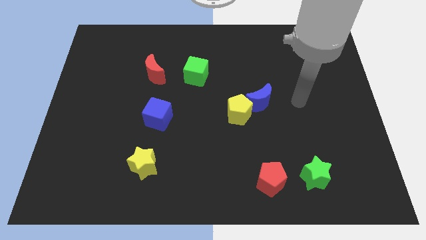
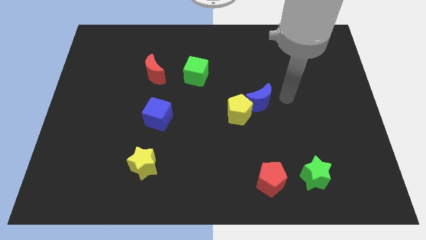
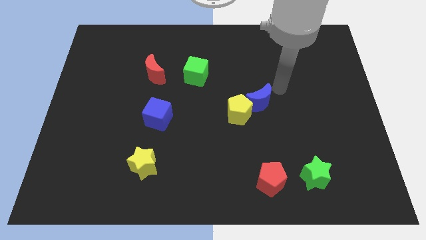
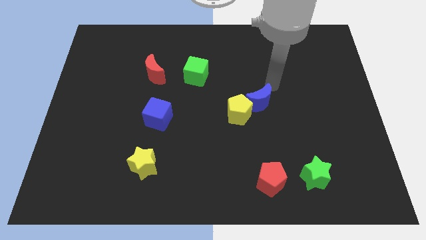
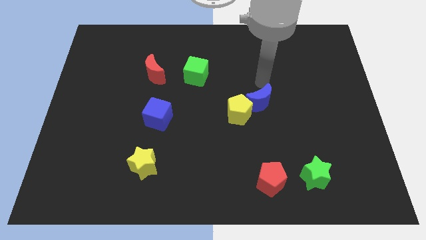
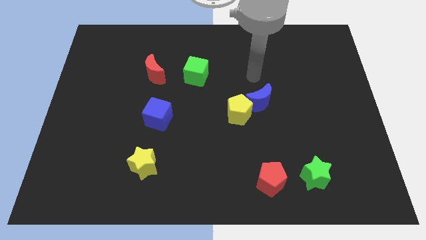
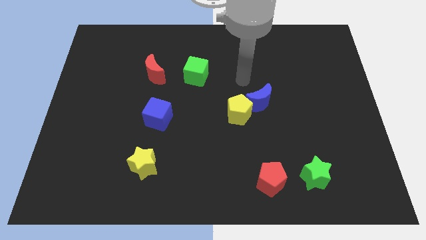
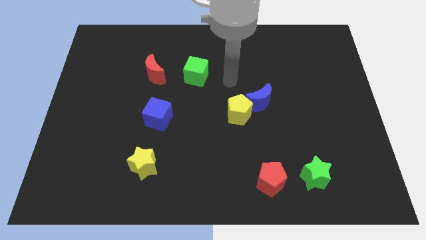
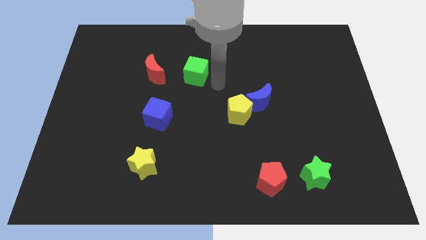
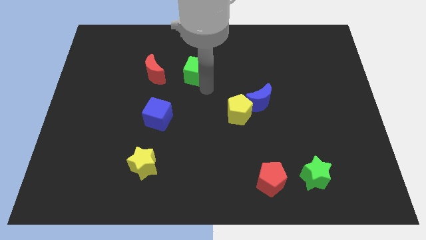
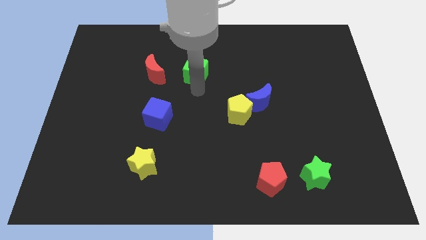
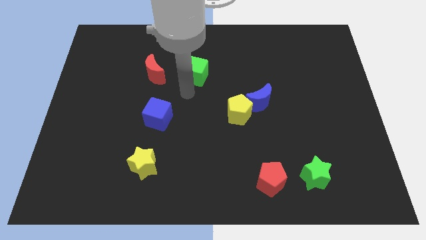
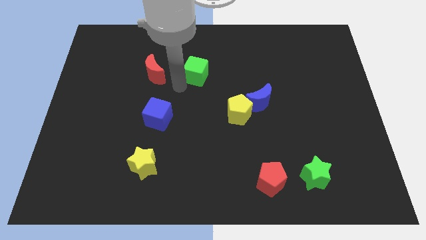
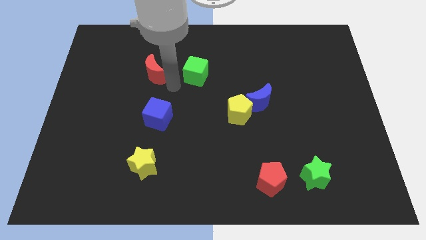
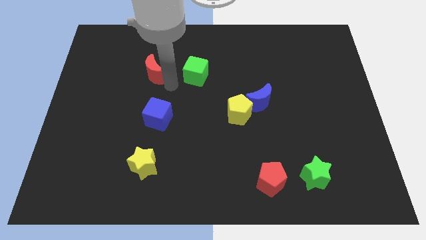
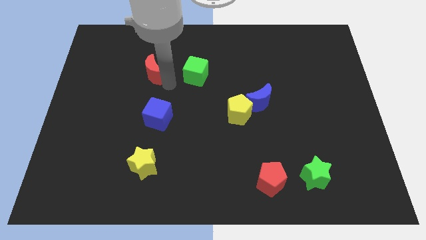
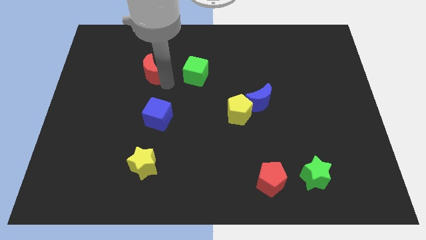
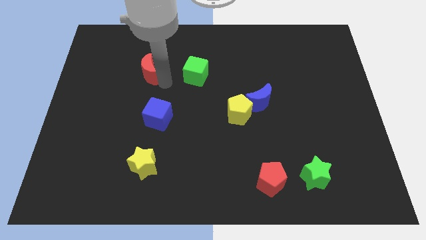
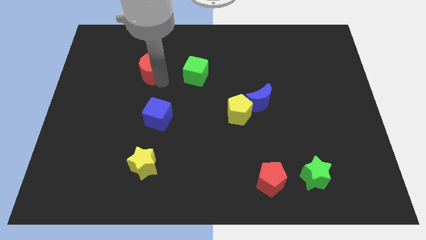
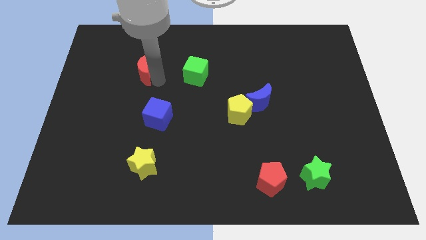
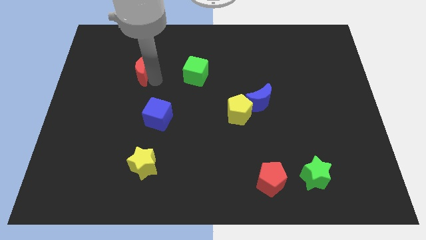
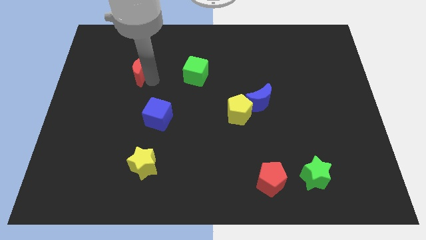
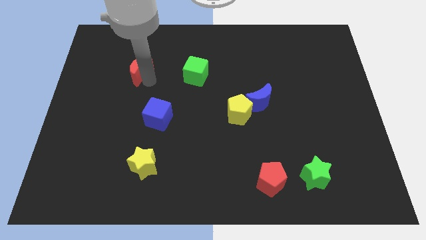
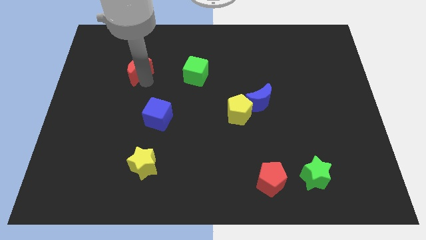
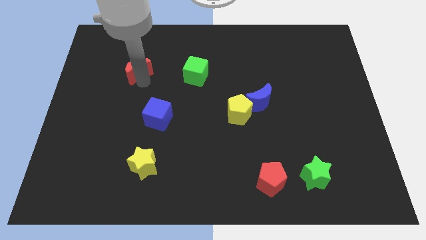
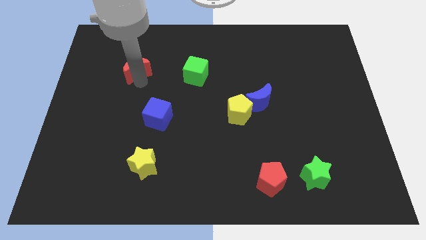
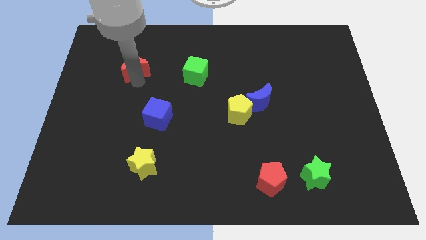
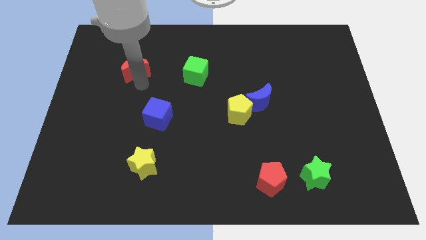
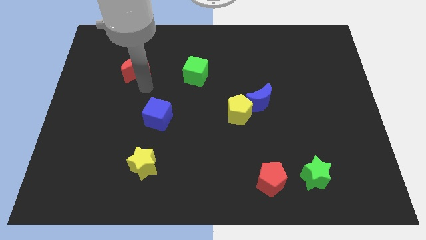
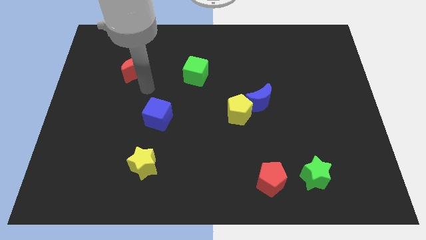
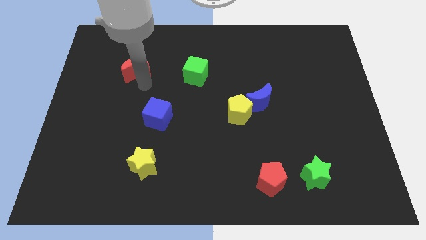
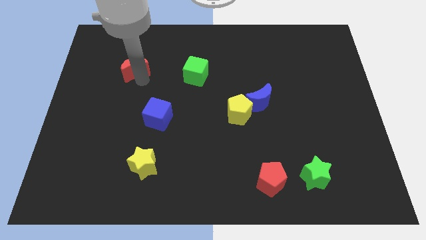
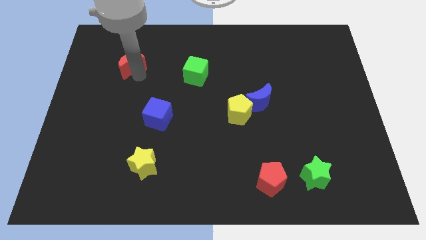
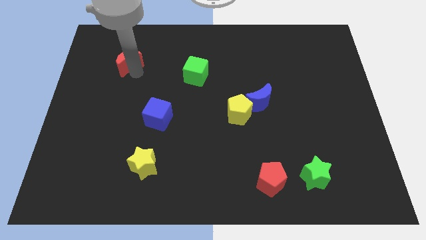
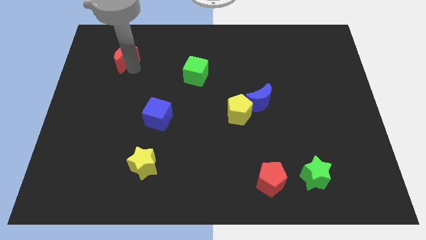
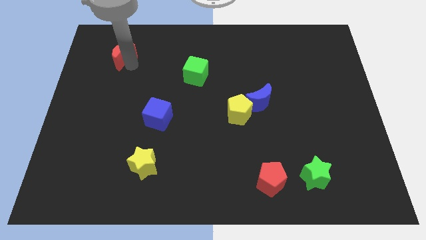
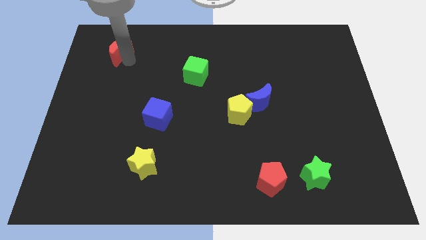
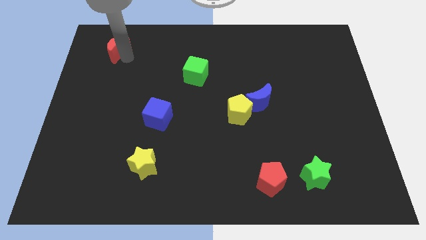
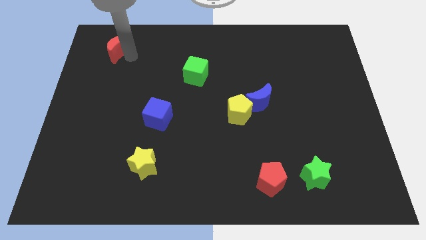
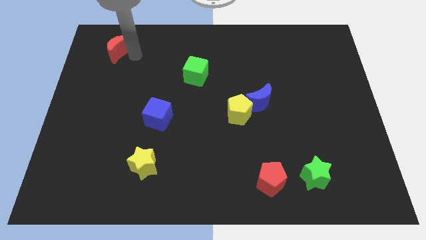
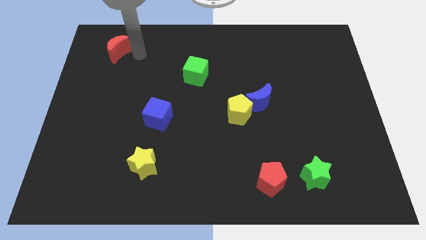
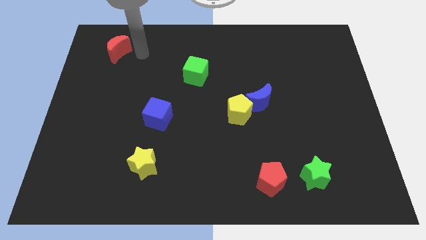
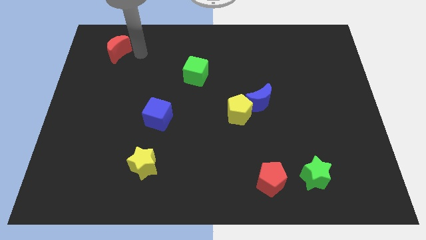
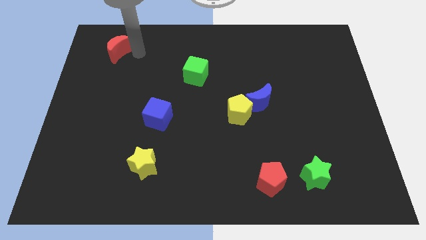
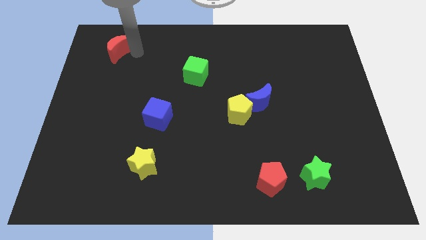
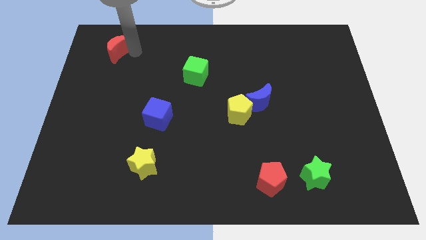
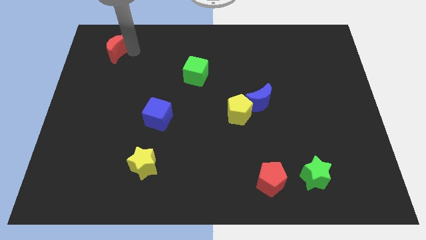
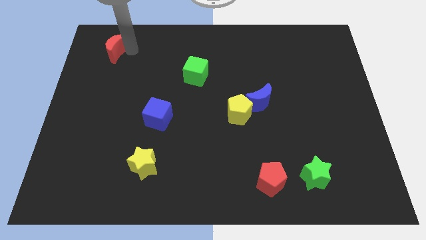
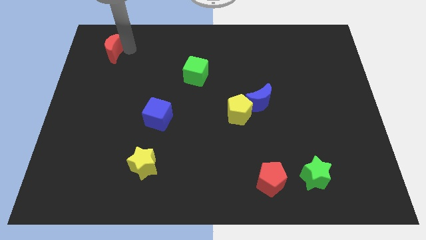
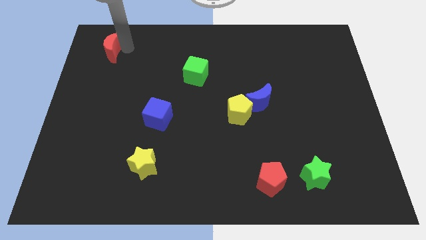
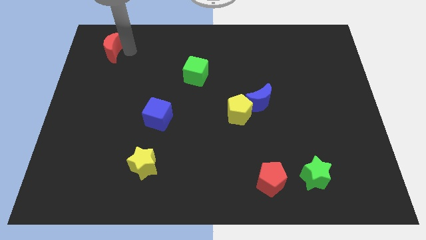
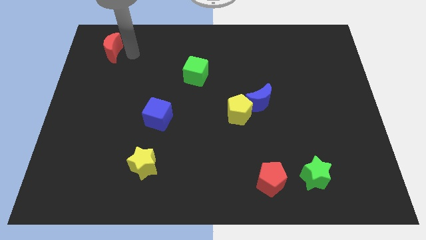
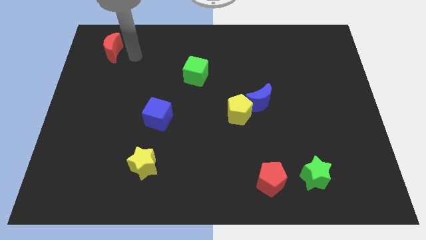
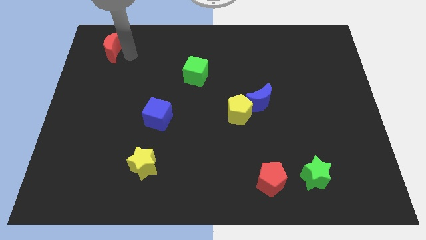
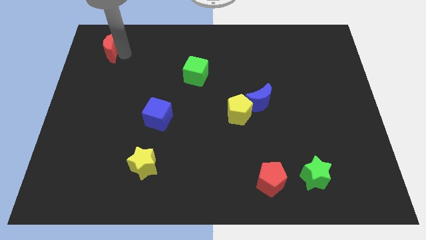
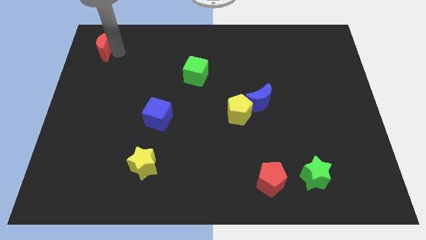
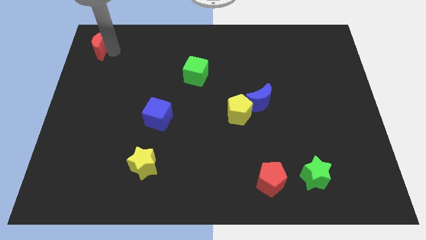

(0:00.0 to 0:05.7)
slide the red moon to the top left corner
